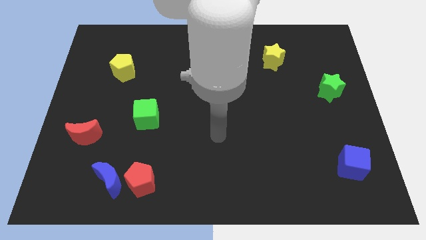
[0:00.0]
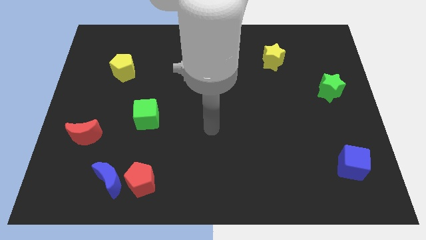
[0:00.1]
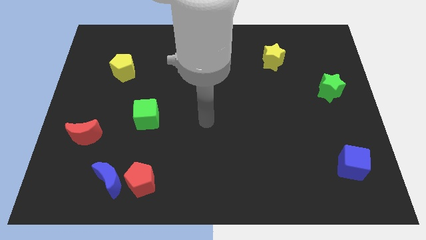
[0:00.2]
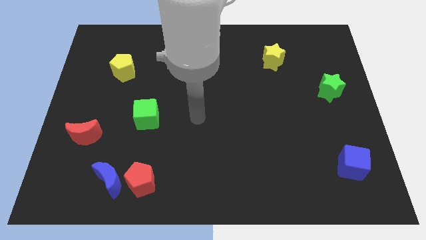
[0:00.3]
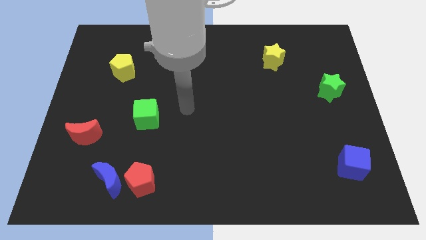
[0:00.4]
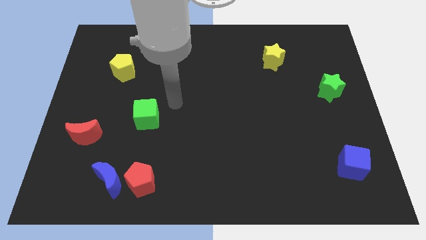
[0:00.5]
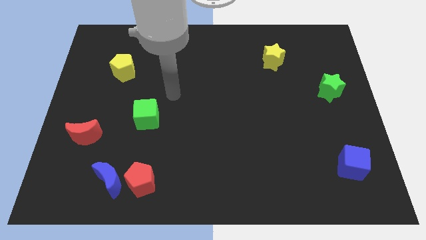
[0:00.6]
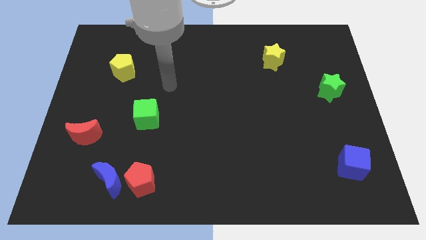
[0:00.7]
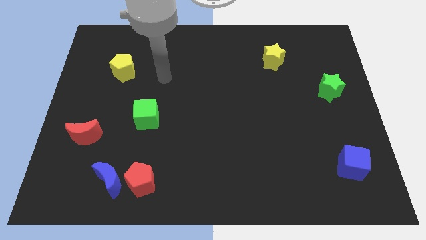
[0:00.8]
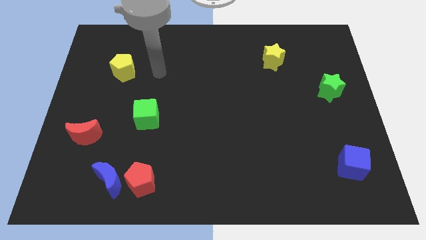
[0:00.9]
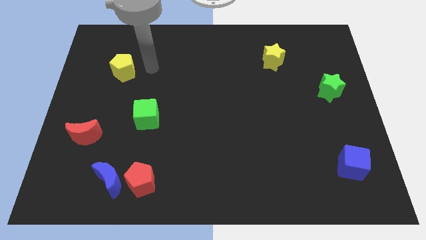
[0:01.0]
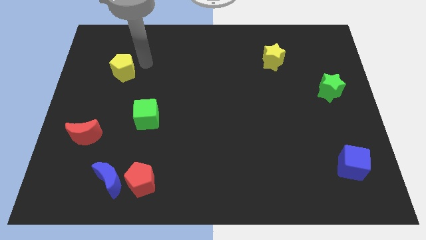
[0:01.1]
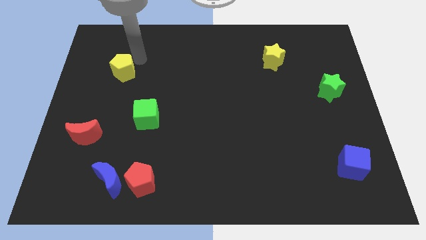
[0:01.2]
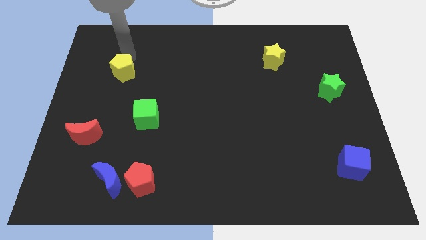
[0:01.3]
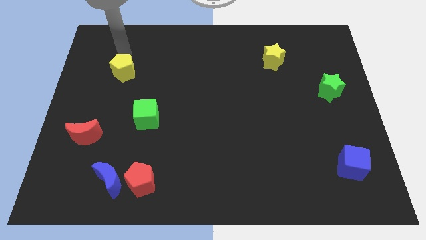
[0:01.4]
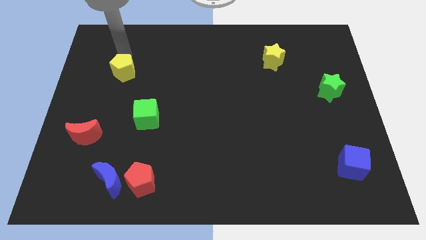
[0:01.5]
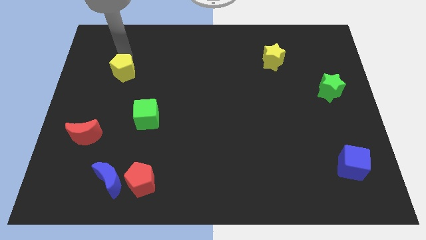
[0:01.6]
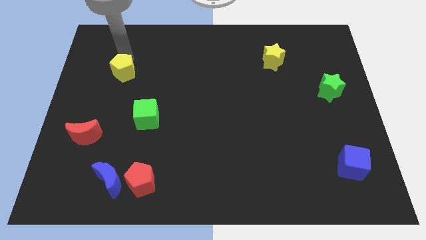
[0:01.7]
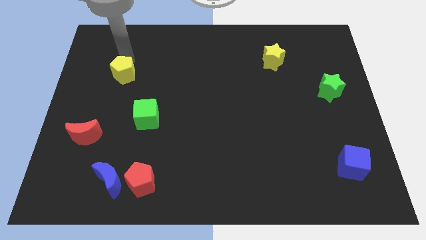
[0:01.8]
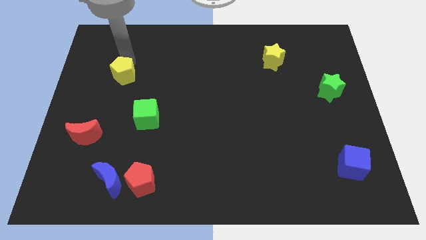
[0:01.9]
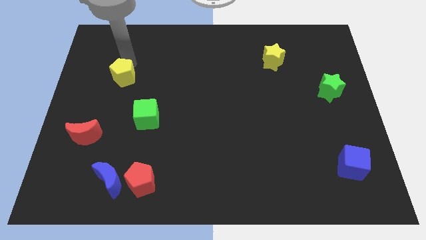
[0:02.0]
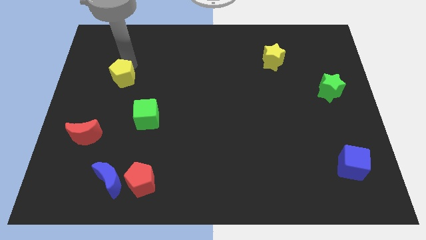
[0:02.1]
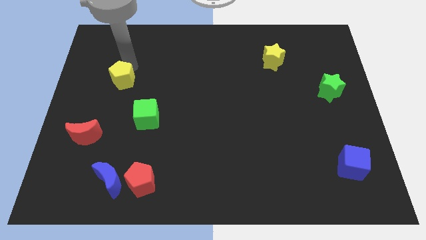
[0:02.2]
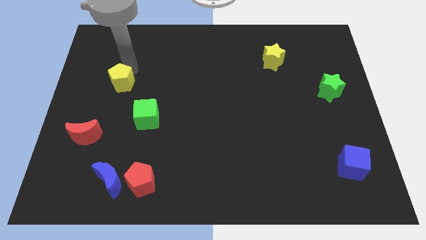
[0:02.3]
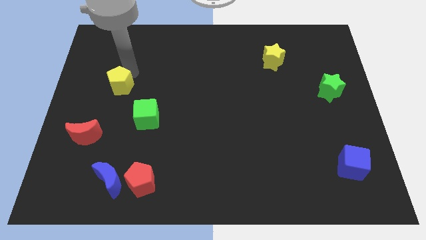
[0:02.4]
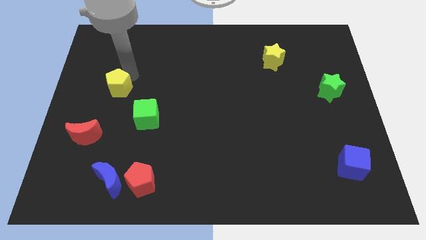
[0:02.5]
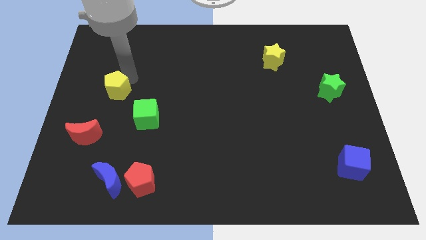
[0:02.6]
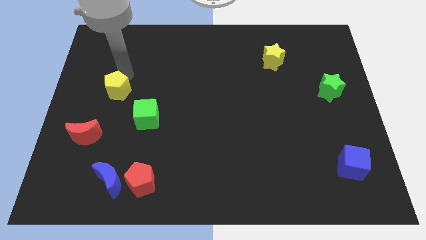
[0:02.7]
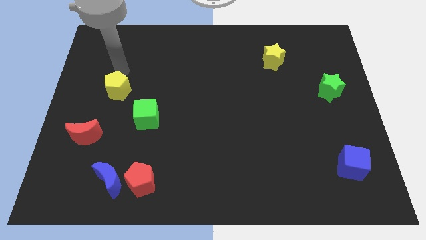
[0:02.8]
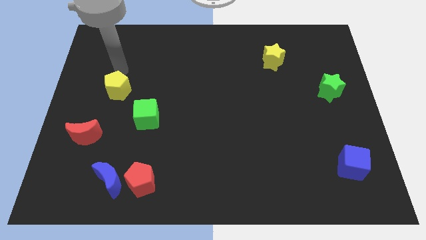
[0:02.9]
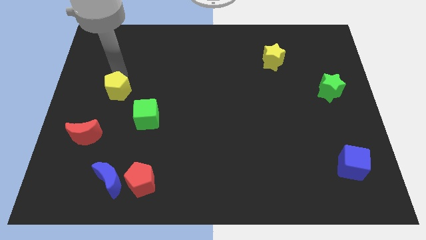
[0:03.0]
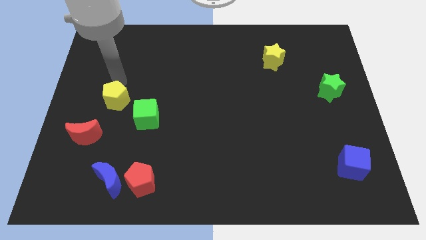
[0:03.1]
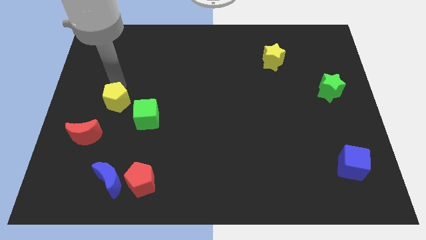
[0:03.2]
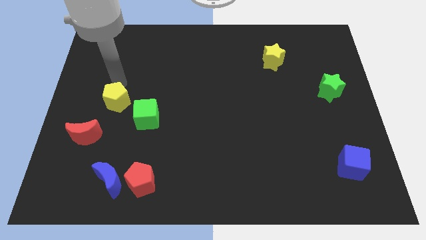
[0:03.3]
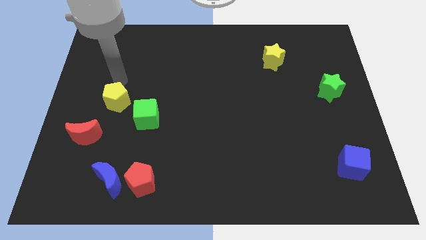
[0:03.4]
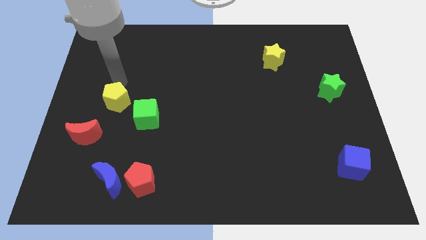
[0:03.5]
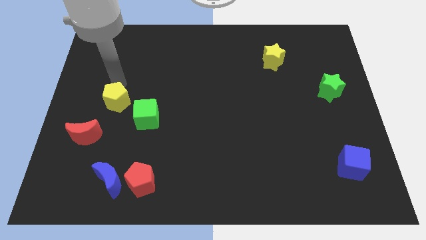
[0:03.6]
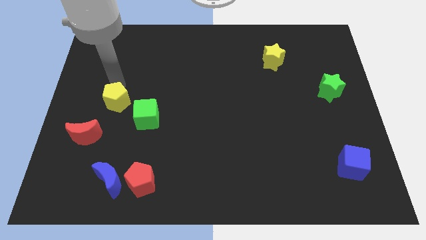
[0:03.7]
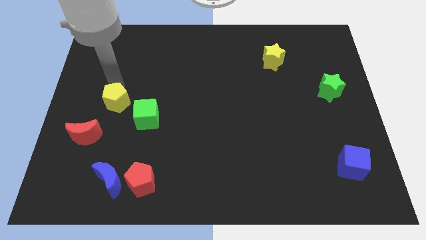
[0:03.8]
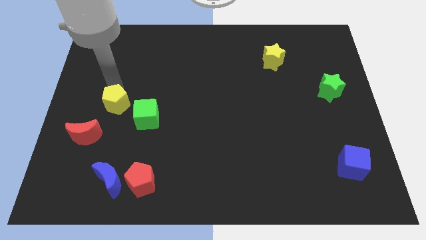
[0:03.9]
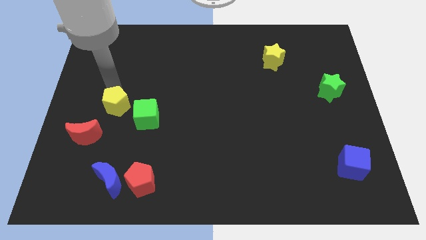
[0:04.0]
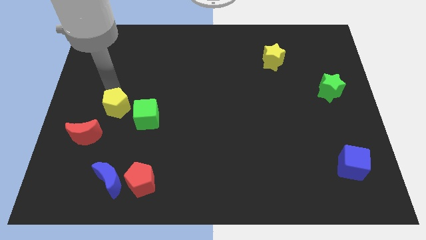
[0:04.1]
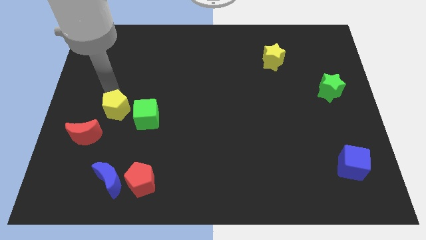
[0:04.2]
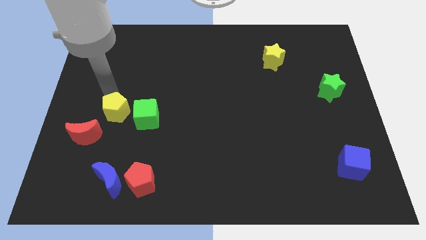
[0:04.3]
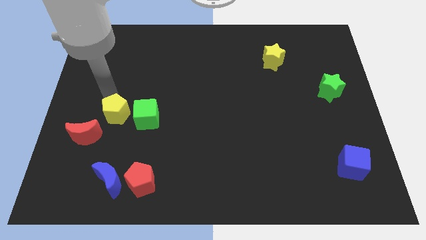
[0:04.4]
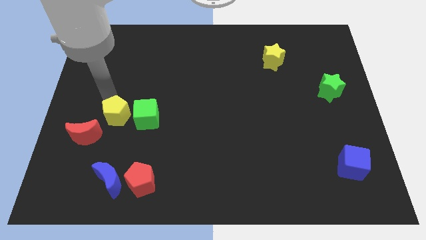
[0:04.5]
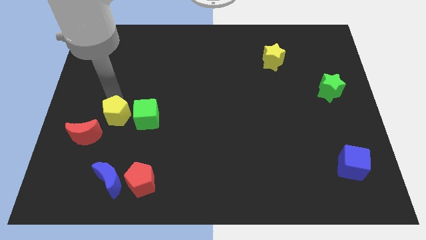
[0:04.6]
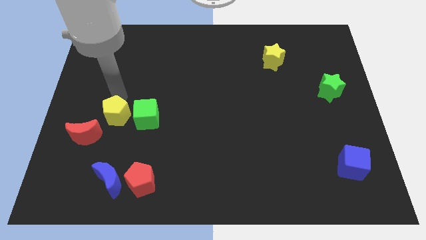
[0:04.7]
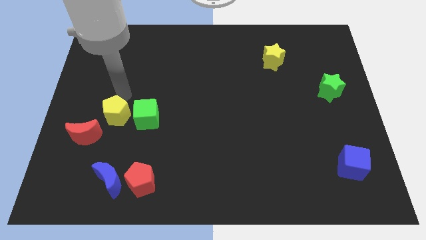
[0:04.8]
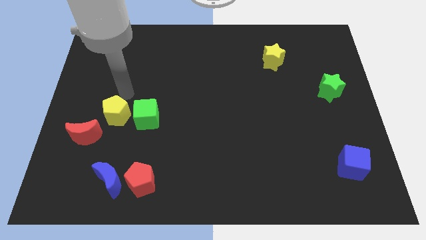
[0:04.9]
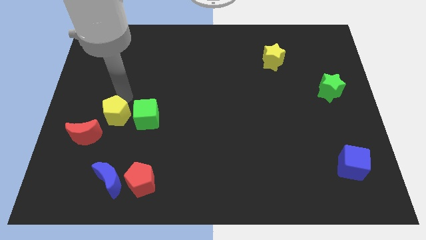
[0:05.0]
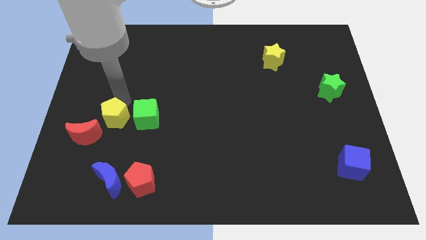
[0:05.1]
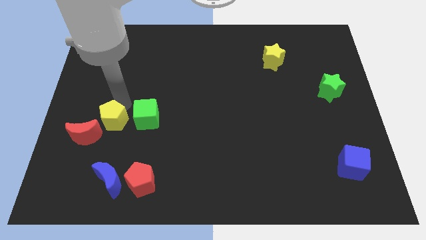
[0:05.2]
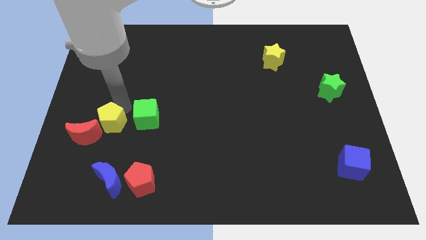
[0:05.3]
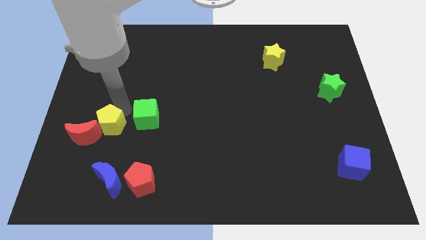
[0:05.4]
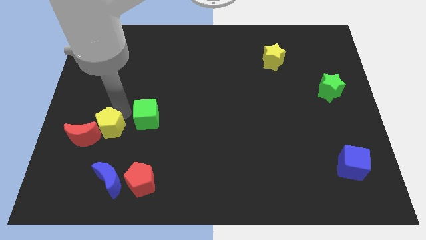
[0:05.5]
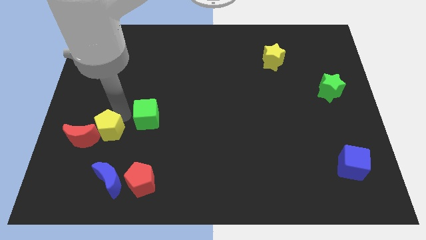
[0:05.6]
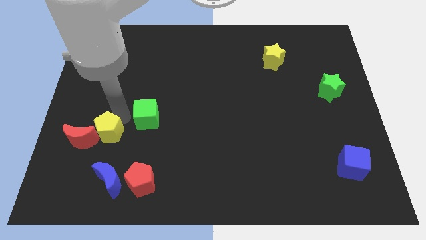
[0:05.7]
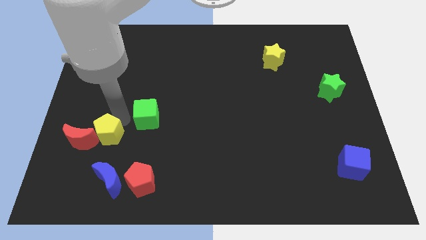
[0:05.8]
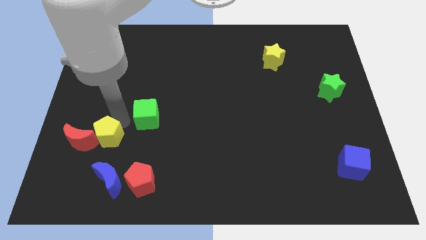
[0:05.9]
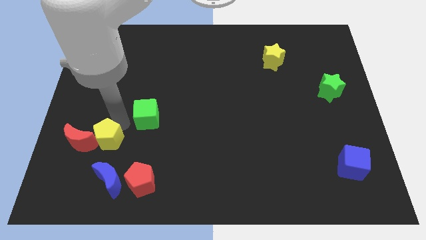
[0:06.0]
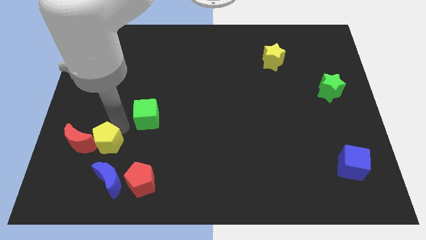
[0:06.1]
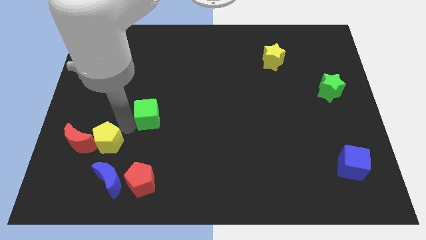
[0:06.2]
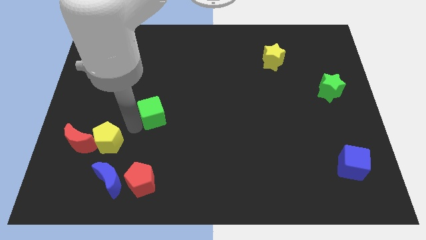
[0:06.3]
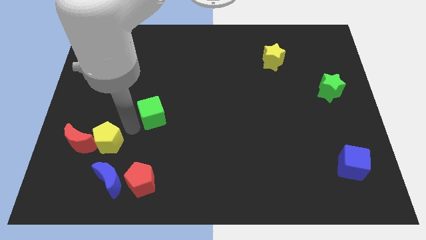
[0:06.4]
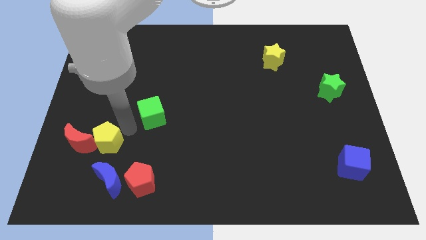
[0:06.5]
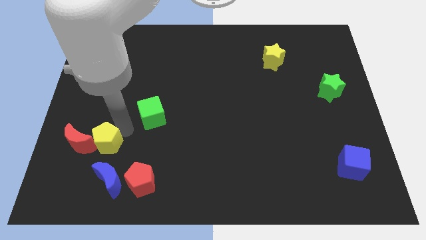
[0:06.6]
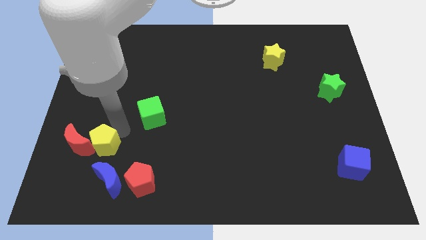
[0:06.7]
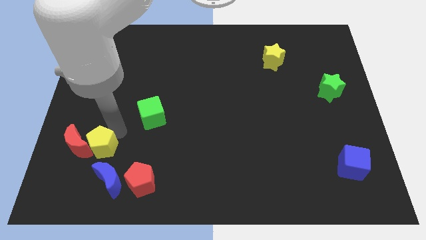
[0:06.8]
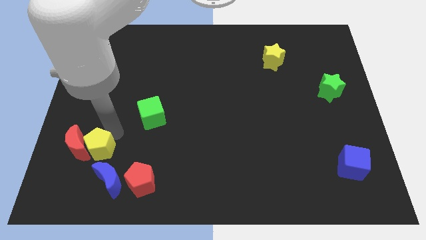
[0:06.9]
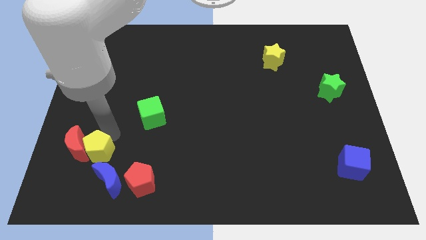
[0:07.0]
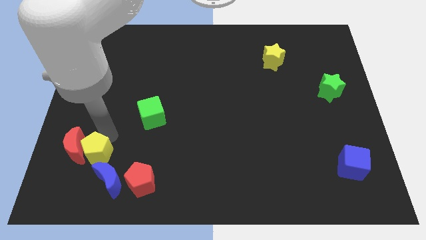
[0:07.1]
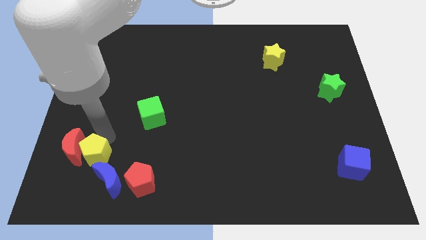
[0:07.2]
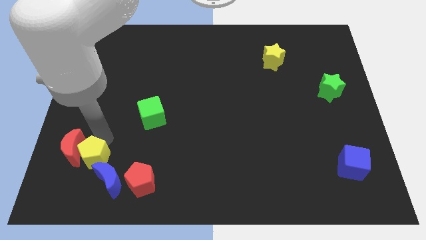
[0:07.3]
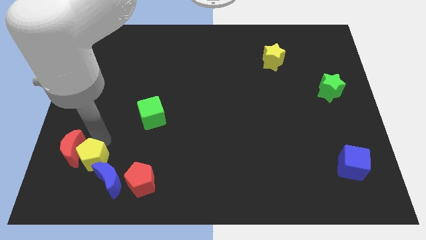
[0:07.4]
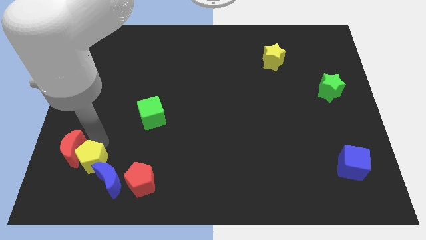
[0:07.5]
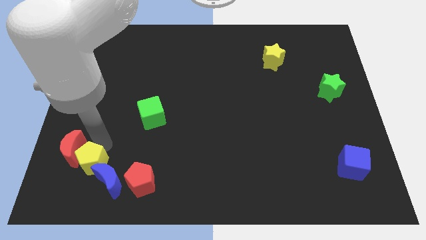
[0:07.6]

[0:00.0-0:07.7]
push the yellow pentagon left of the red pentagon

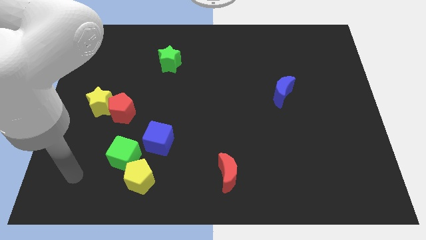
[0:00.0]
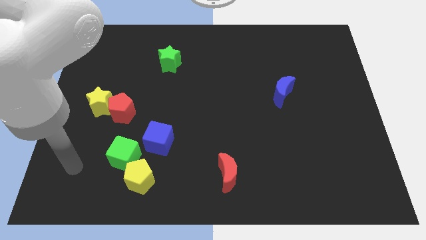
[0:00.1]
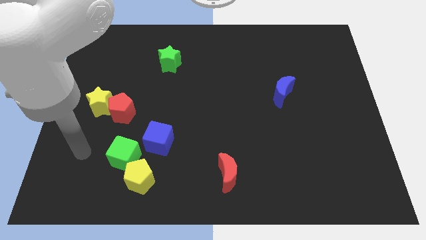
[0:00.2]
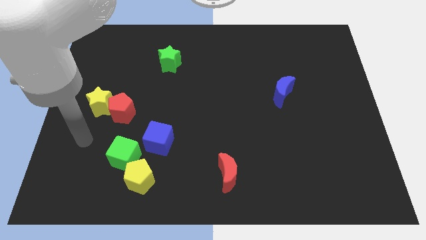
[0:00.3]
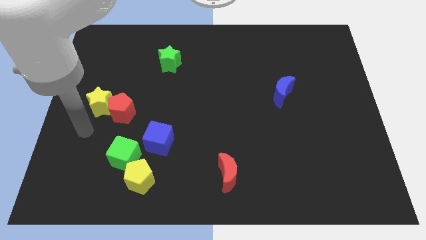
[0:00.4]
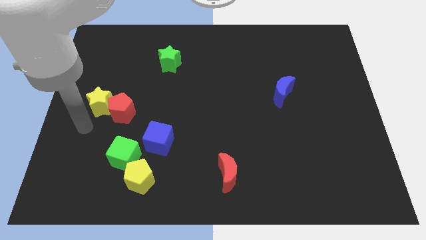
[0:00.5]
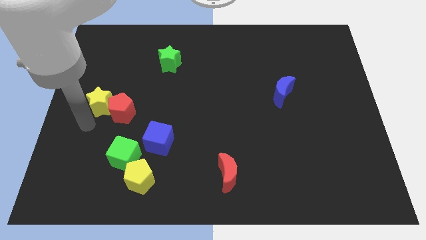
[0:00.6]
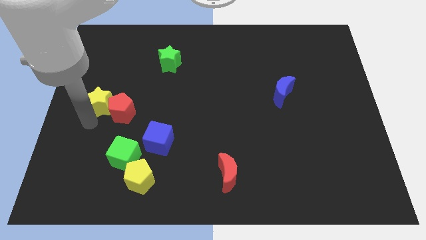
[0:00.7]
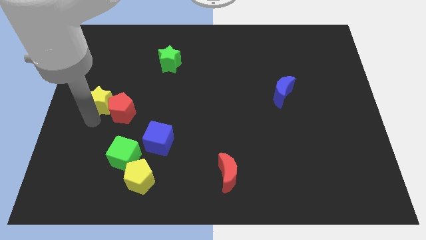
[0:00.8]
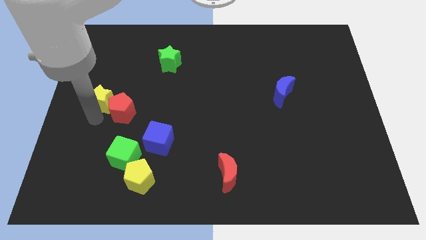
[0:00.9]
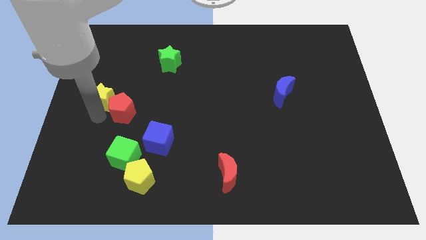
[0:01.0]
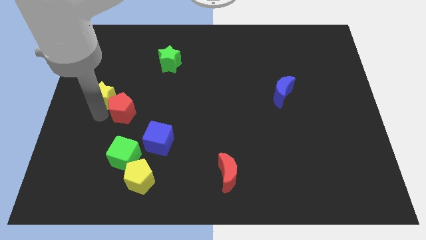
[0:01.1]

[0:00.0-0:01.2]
move the yellow star to the top of the red pentagon
